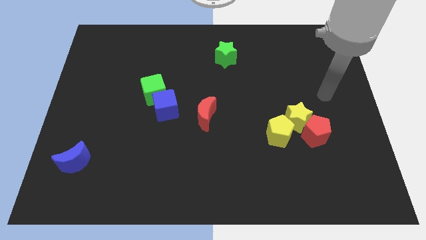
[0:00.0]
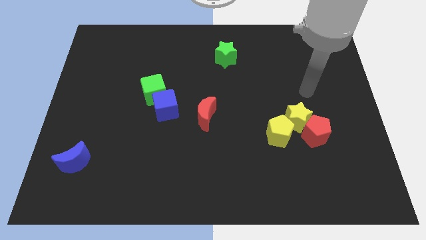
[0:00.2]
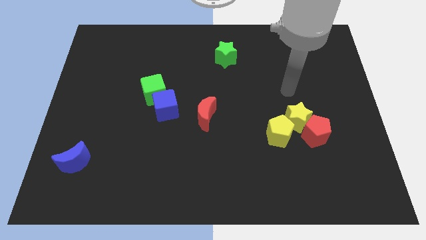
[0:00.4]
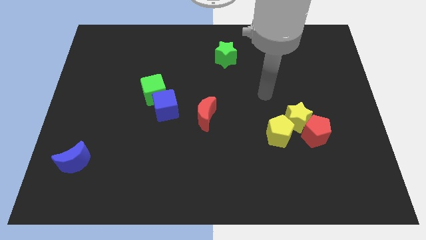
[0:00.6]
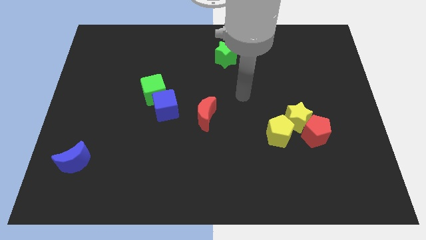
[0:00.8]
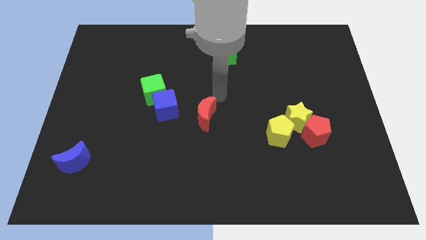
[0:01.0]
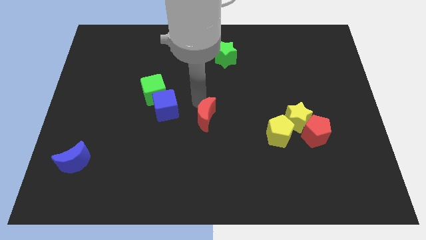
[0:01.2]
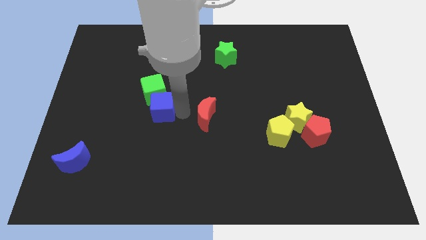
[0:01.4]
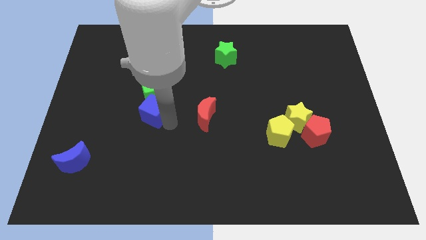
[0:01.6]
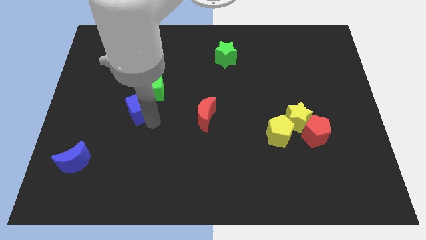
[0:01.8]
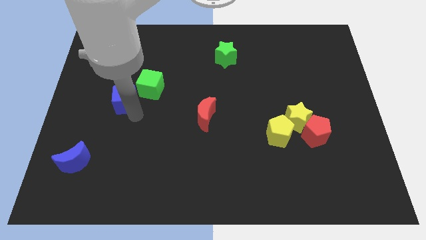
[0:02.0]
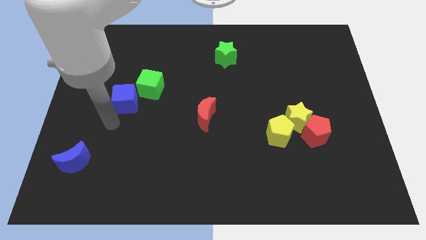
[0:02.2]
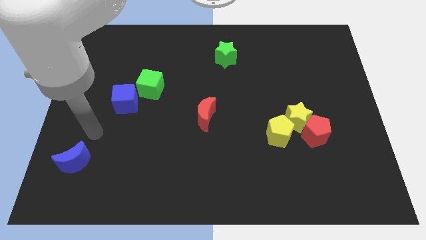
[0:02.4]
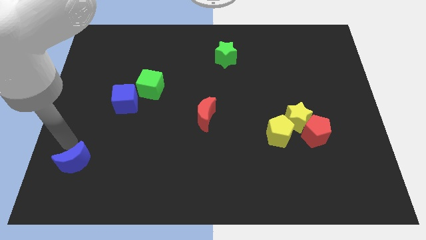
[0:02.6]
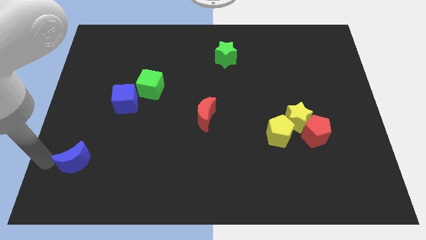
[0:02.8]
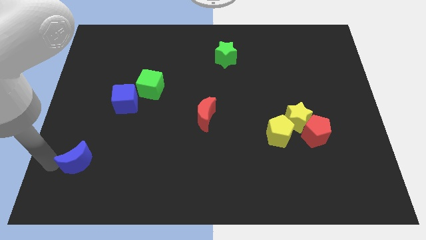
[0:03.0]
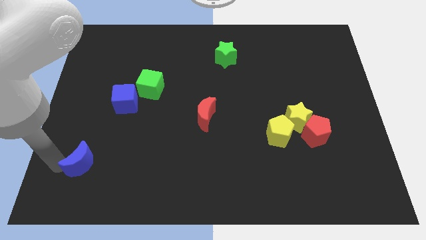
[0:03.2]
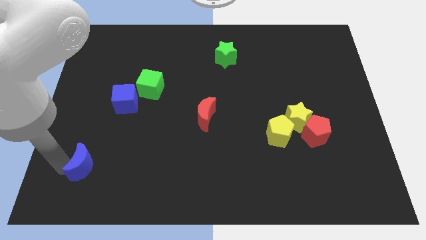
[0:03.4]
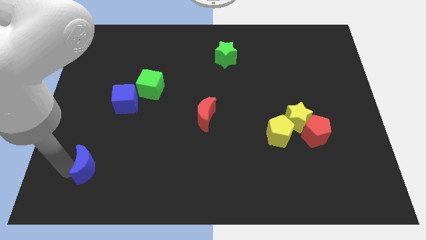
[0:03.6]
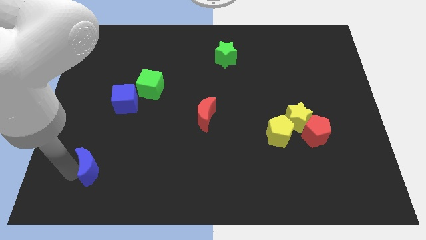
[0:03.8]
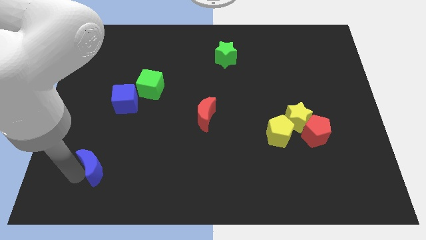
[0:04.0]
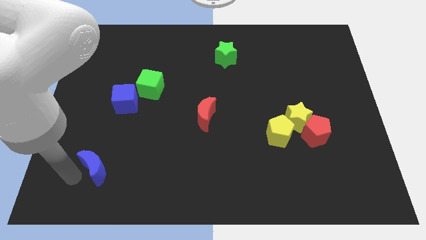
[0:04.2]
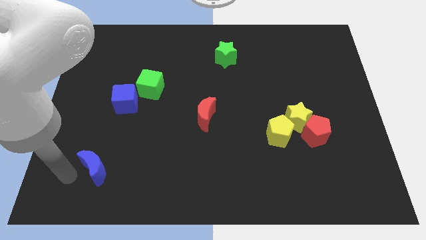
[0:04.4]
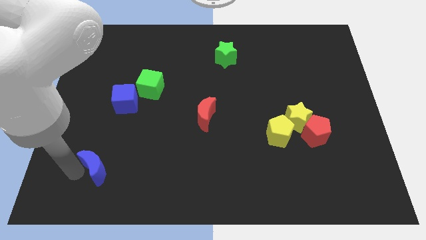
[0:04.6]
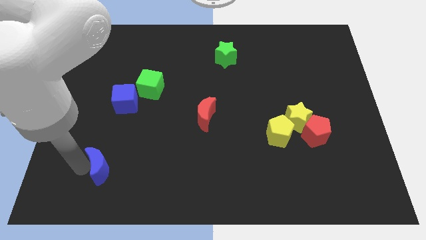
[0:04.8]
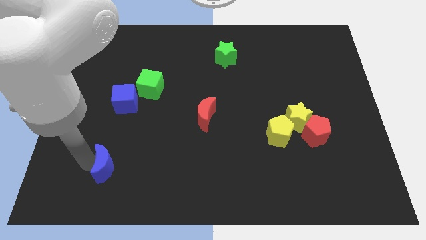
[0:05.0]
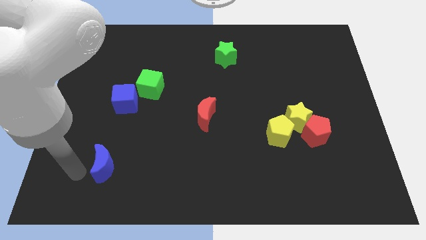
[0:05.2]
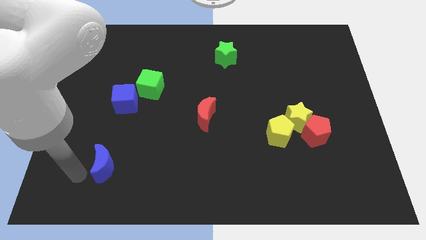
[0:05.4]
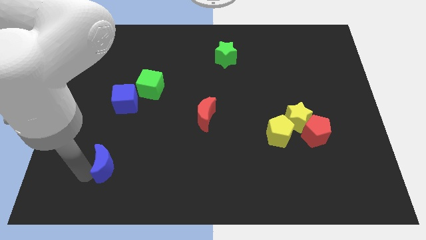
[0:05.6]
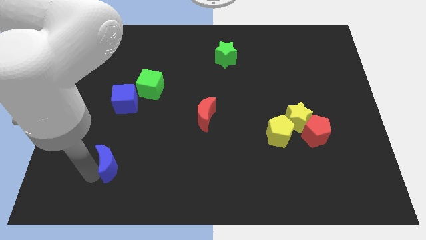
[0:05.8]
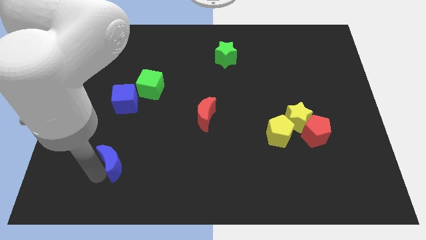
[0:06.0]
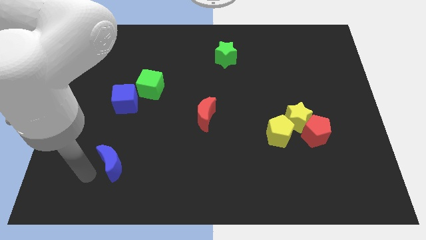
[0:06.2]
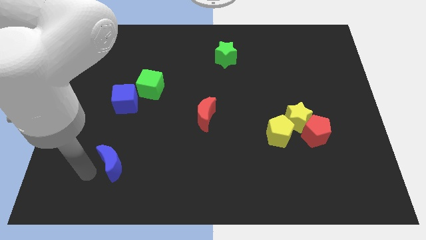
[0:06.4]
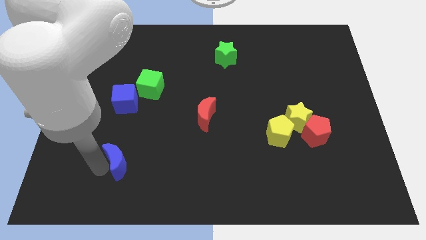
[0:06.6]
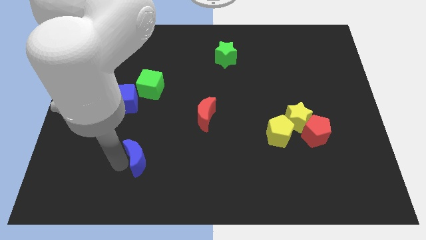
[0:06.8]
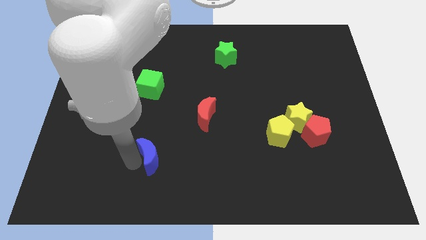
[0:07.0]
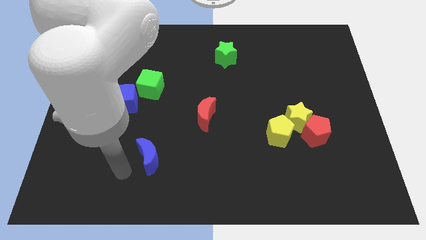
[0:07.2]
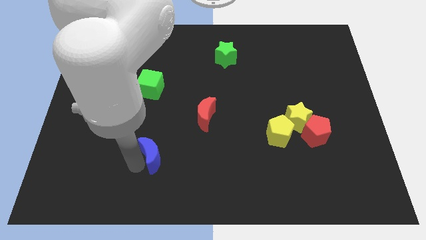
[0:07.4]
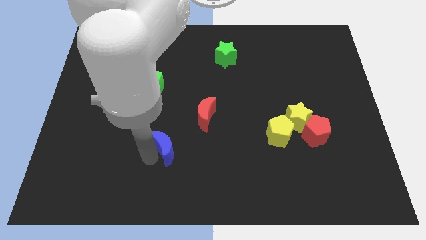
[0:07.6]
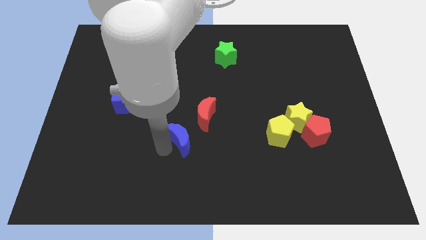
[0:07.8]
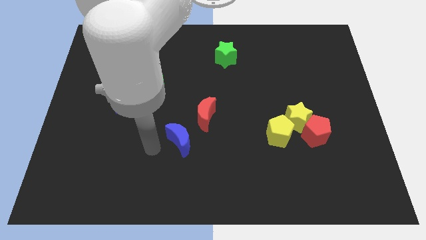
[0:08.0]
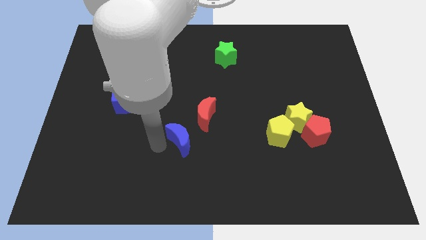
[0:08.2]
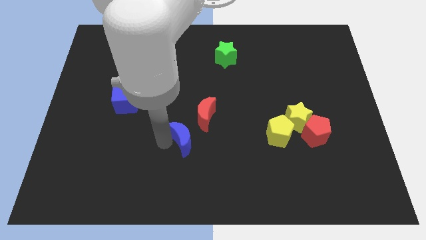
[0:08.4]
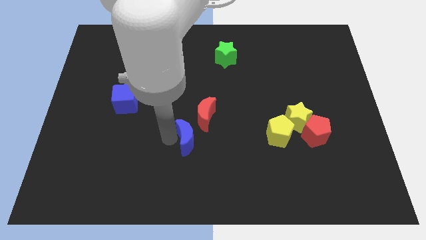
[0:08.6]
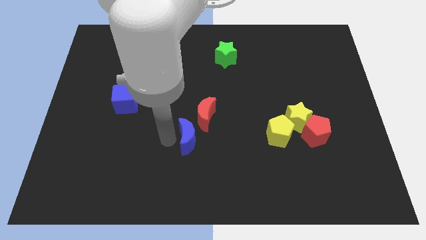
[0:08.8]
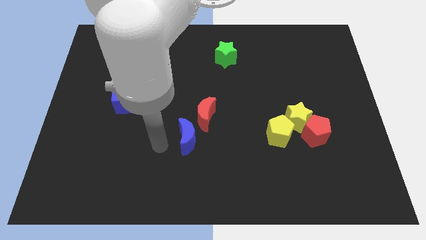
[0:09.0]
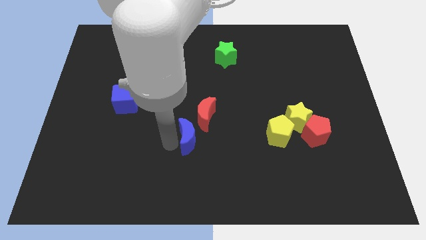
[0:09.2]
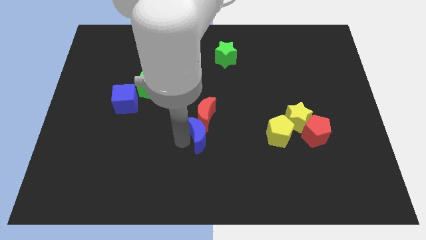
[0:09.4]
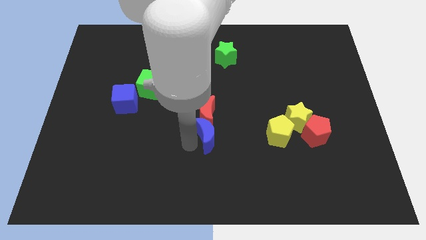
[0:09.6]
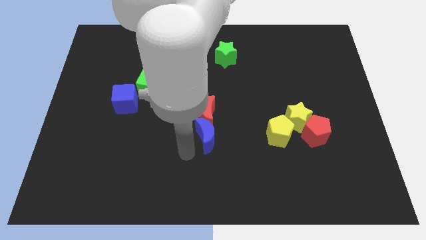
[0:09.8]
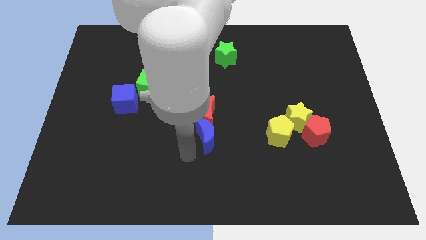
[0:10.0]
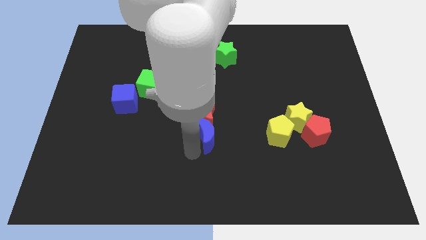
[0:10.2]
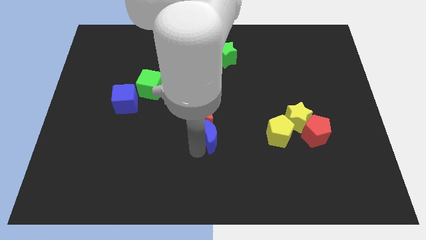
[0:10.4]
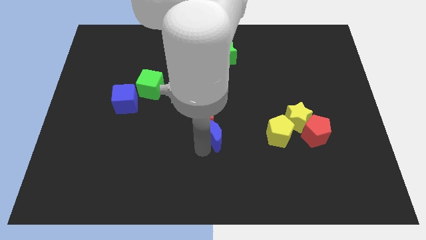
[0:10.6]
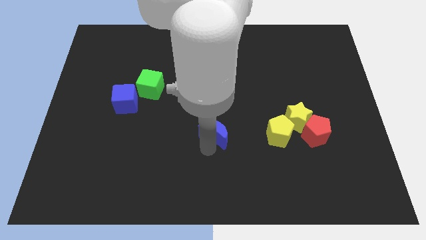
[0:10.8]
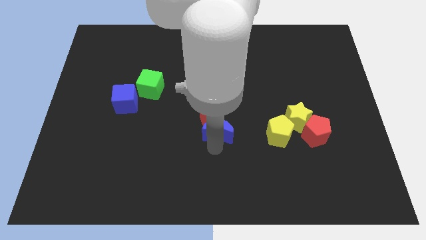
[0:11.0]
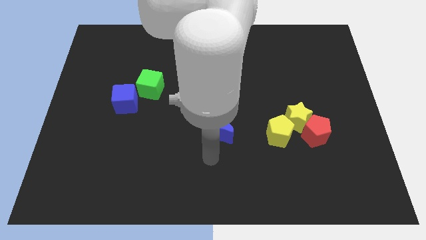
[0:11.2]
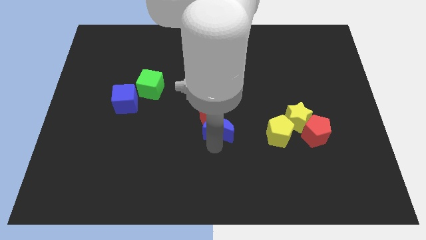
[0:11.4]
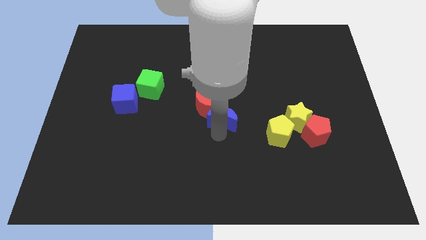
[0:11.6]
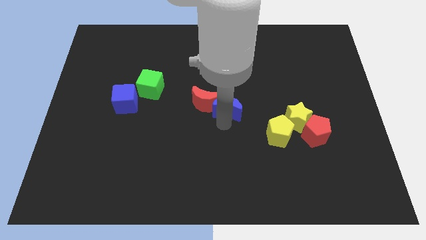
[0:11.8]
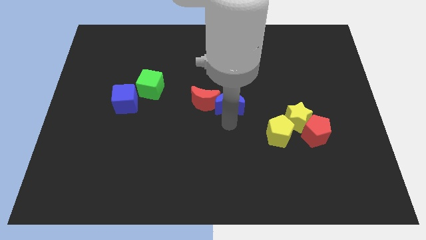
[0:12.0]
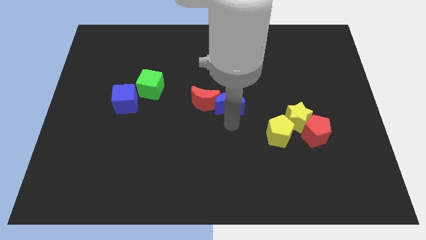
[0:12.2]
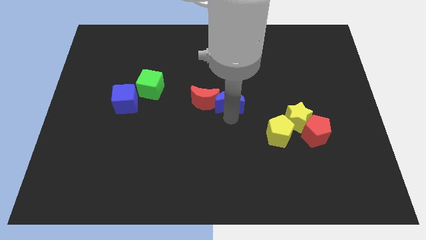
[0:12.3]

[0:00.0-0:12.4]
move the blue moon below the green star

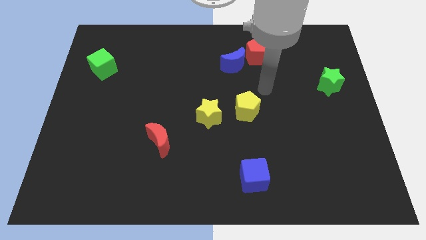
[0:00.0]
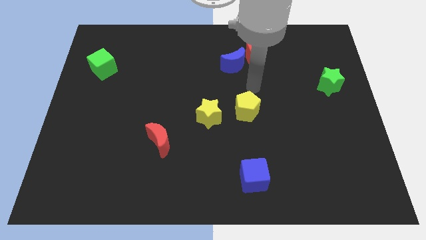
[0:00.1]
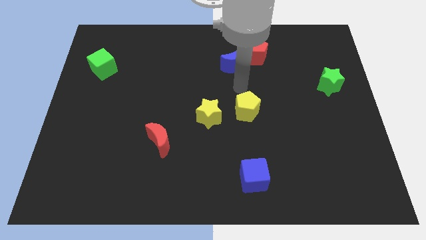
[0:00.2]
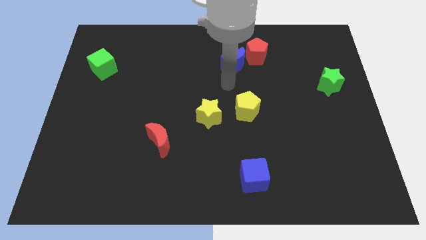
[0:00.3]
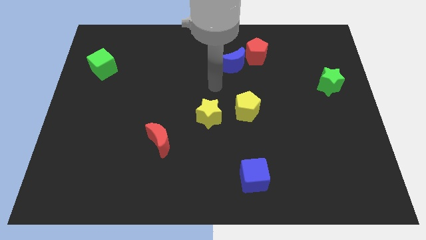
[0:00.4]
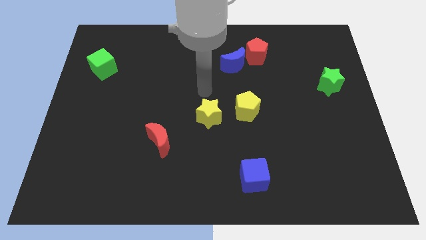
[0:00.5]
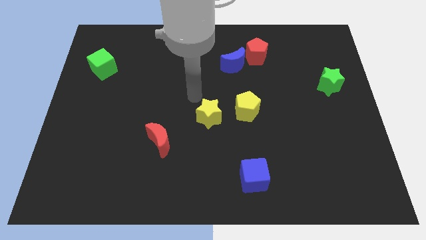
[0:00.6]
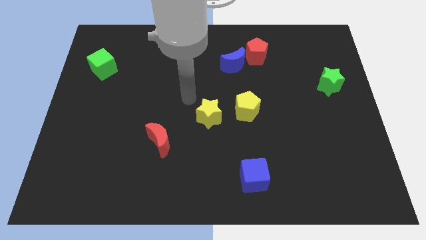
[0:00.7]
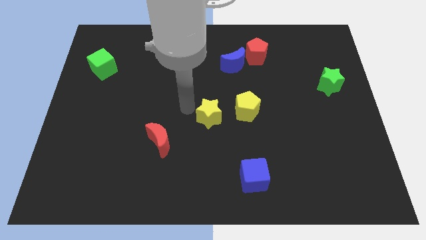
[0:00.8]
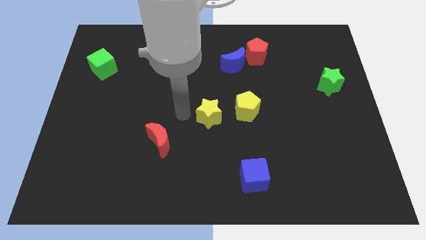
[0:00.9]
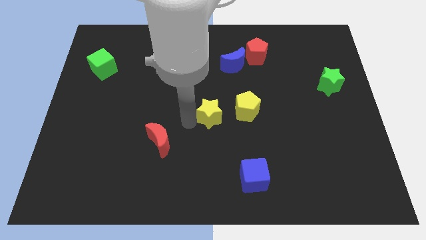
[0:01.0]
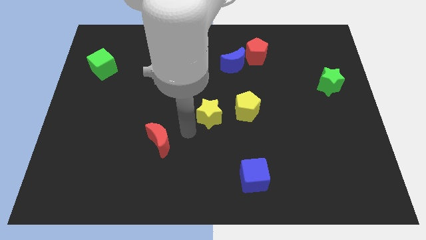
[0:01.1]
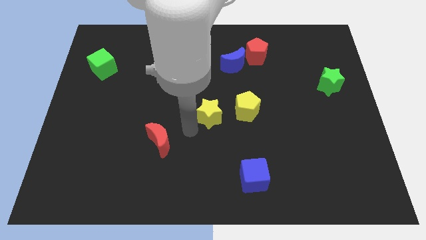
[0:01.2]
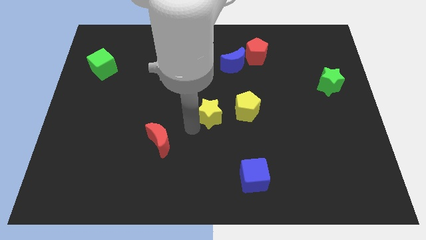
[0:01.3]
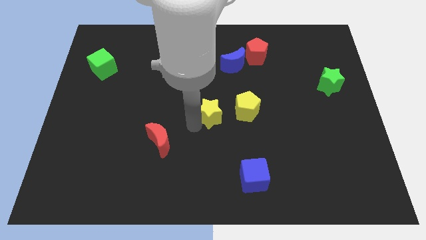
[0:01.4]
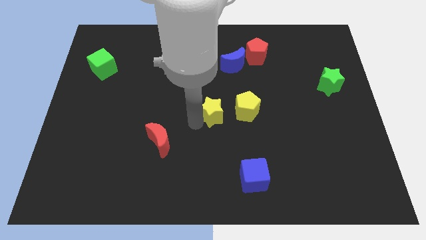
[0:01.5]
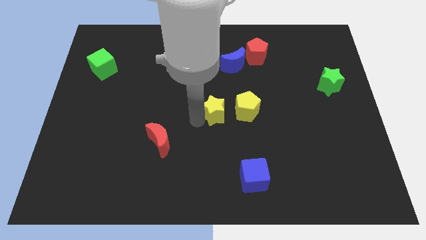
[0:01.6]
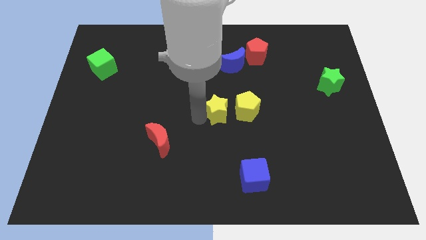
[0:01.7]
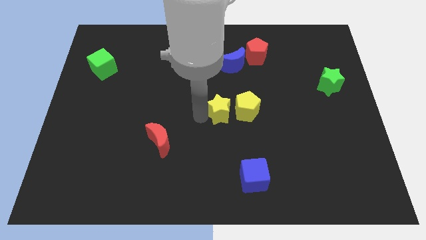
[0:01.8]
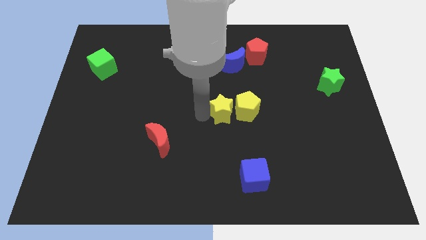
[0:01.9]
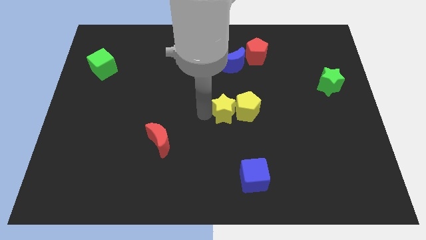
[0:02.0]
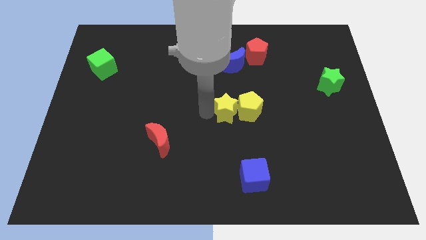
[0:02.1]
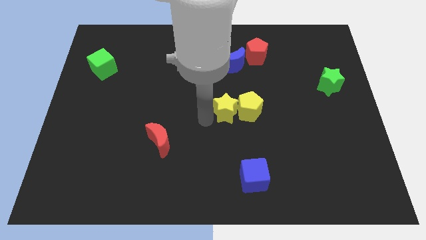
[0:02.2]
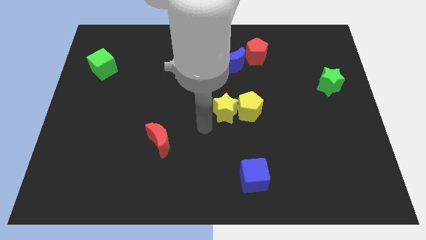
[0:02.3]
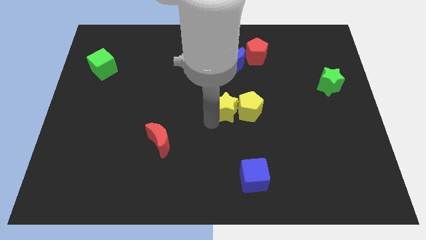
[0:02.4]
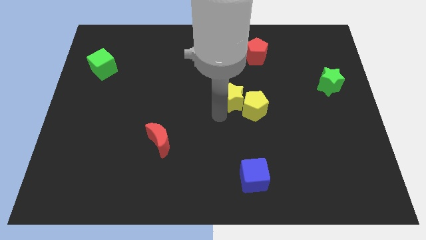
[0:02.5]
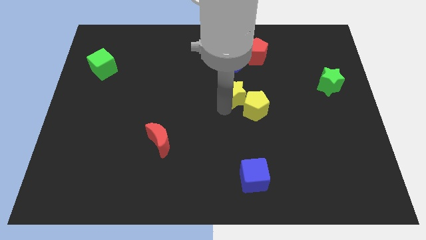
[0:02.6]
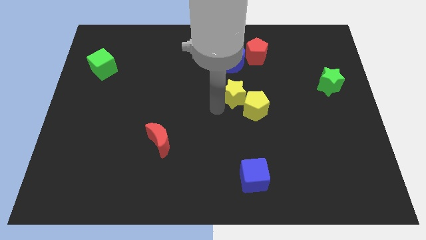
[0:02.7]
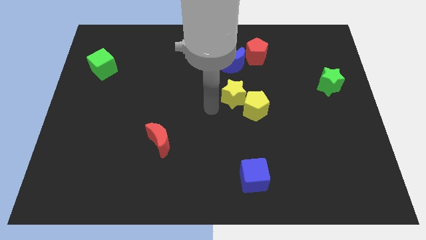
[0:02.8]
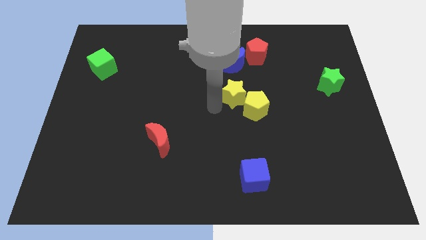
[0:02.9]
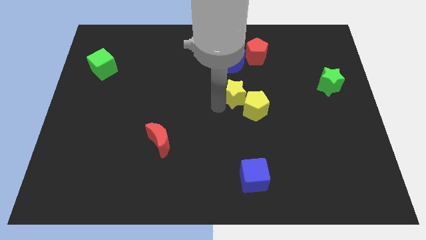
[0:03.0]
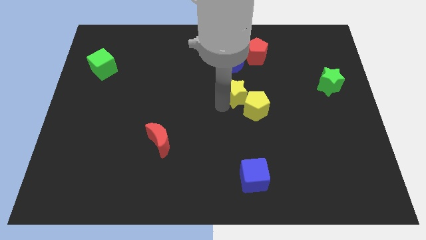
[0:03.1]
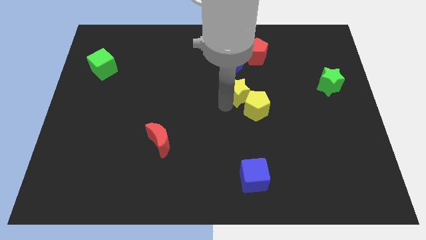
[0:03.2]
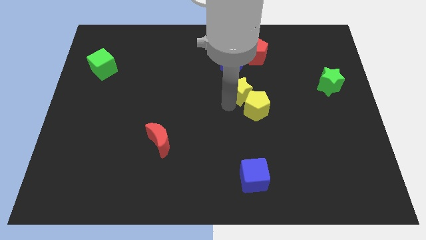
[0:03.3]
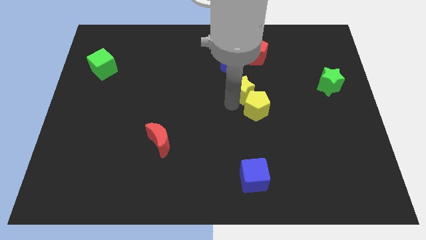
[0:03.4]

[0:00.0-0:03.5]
push the yellow star below the red pentagon
